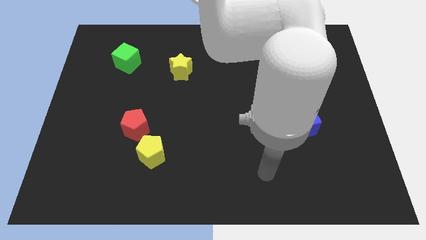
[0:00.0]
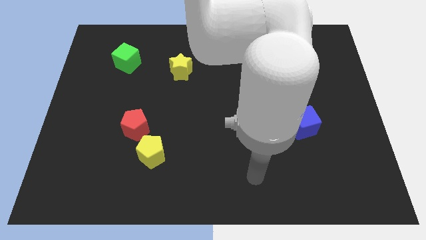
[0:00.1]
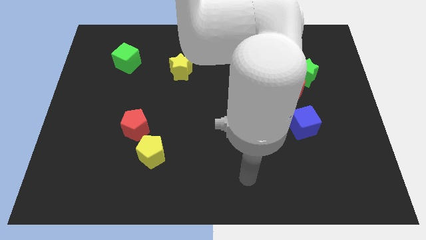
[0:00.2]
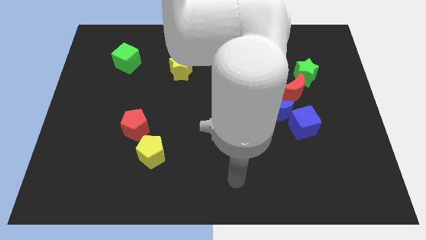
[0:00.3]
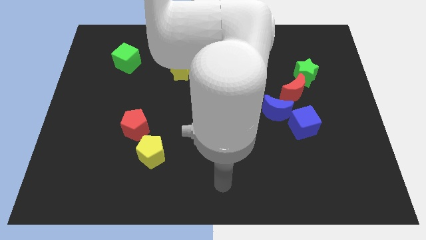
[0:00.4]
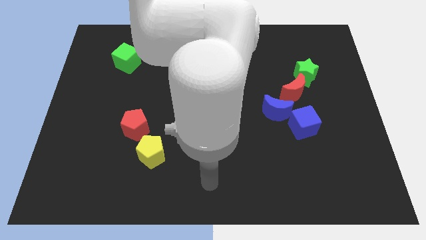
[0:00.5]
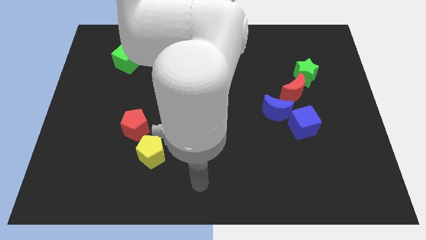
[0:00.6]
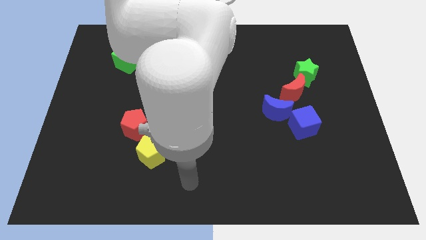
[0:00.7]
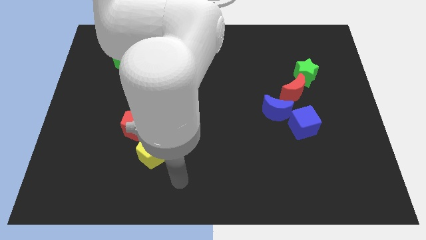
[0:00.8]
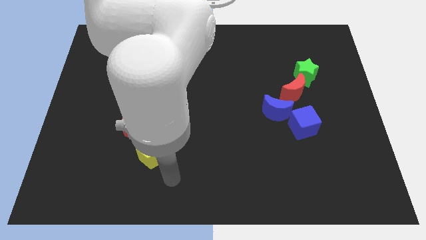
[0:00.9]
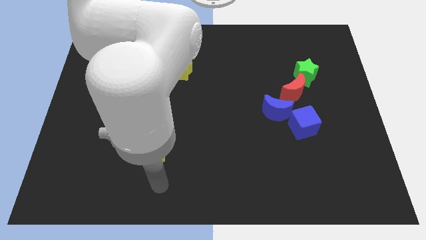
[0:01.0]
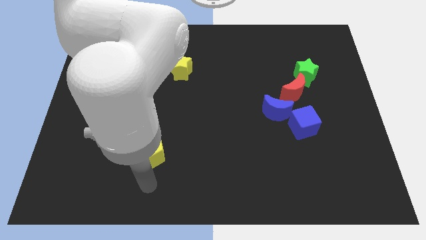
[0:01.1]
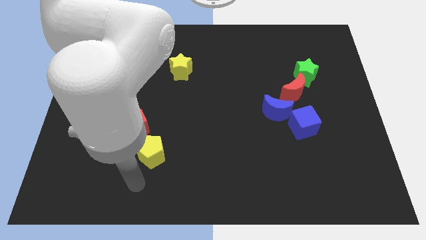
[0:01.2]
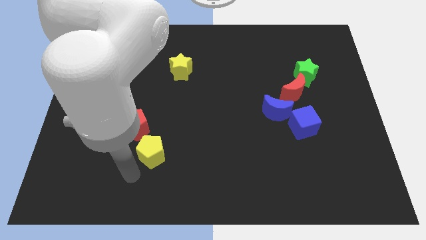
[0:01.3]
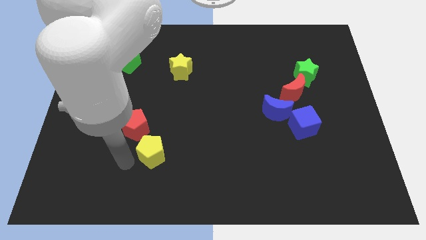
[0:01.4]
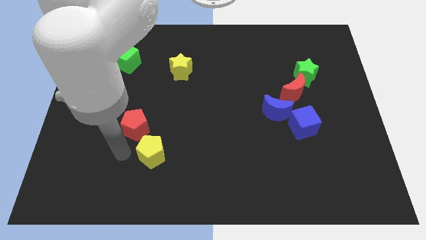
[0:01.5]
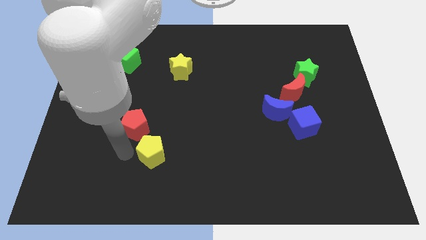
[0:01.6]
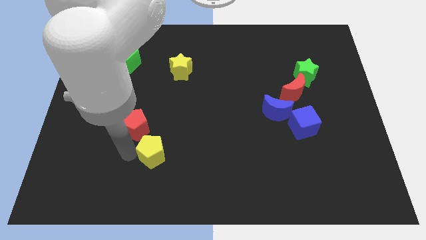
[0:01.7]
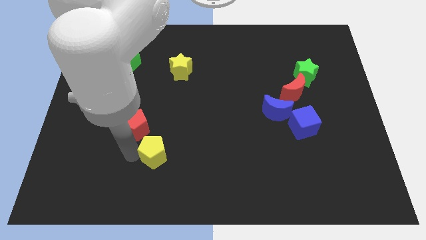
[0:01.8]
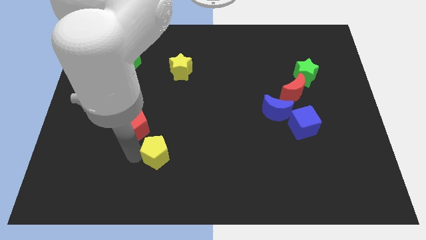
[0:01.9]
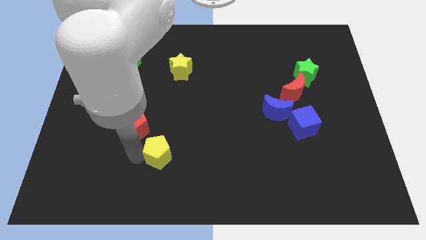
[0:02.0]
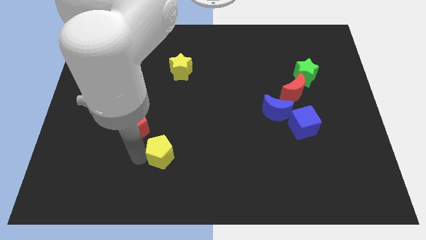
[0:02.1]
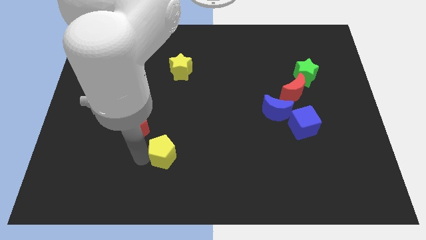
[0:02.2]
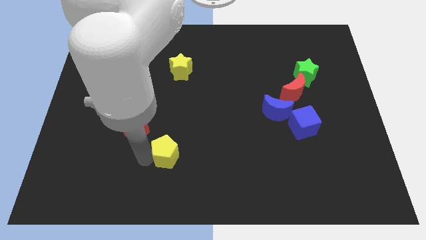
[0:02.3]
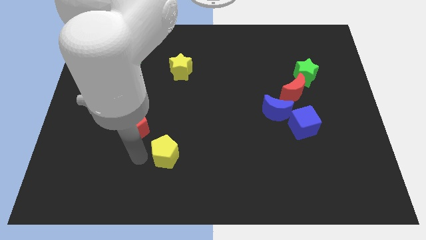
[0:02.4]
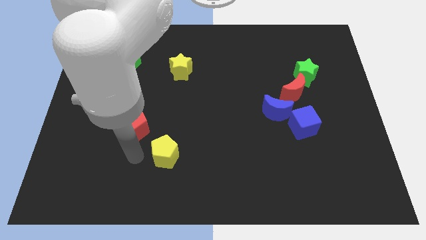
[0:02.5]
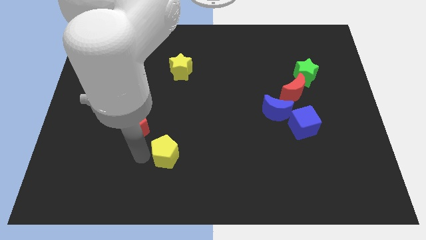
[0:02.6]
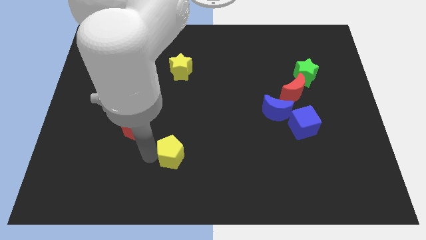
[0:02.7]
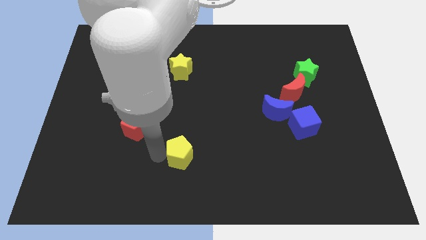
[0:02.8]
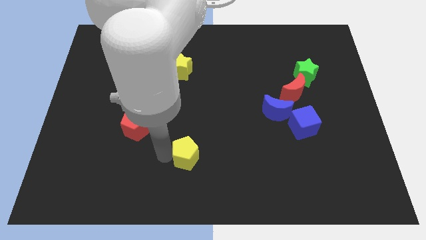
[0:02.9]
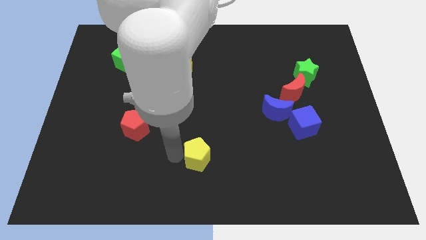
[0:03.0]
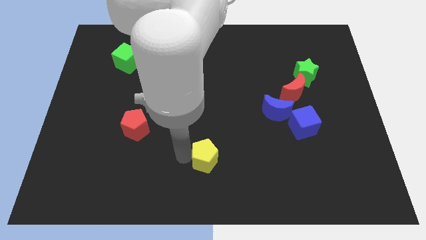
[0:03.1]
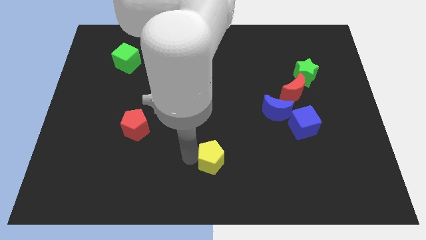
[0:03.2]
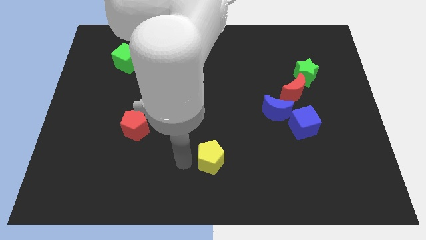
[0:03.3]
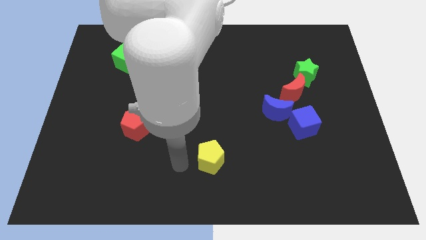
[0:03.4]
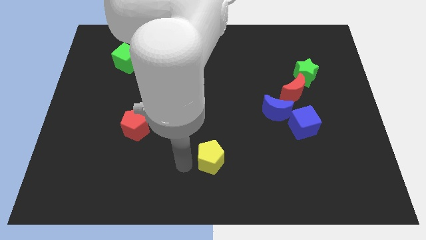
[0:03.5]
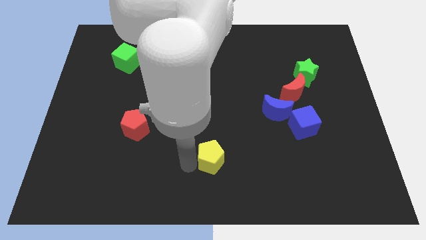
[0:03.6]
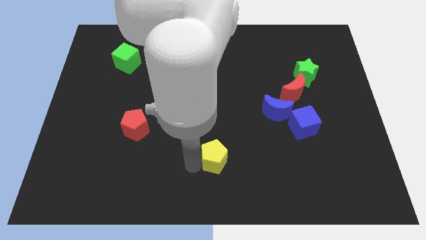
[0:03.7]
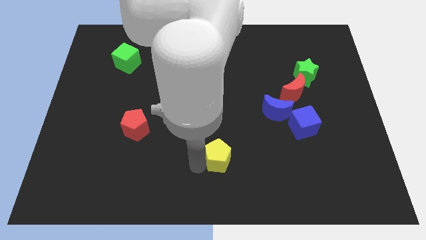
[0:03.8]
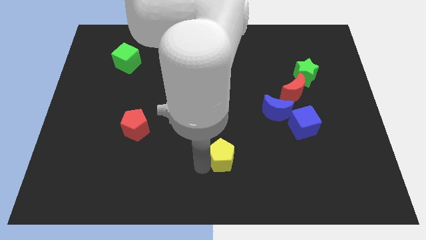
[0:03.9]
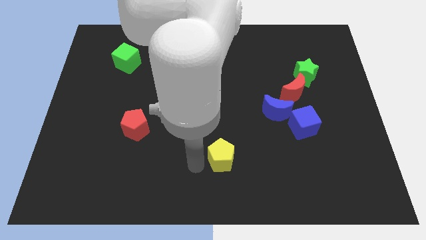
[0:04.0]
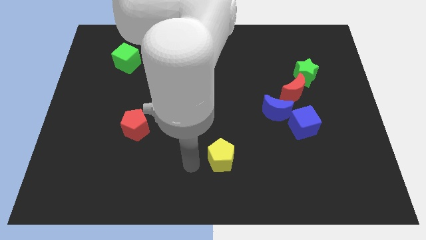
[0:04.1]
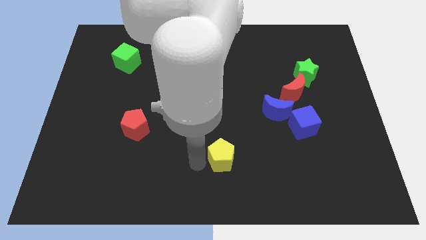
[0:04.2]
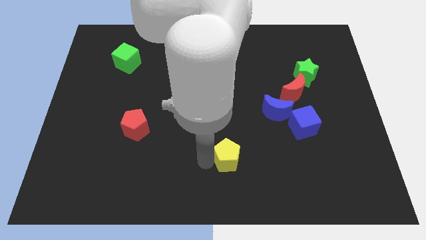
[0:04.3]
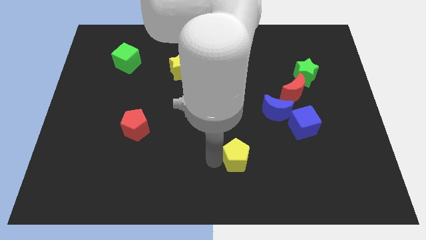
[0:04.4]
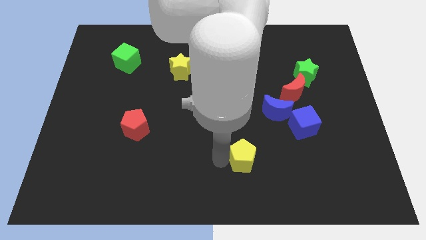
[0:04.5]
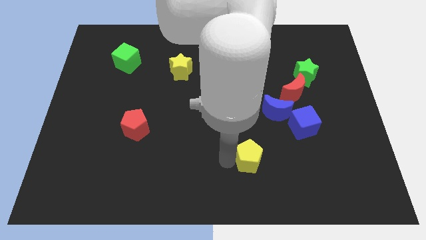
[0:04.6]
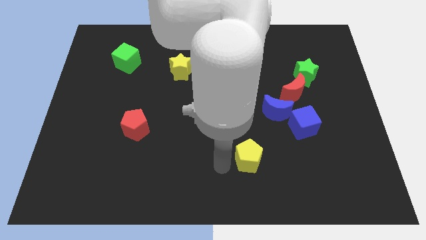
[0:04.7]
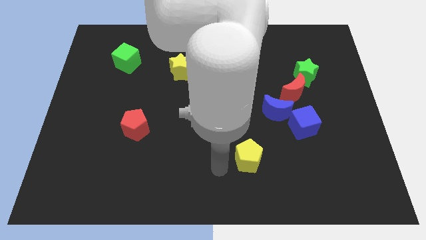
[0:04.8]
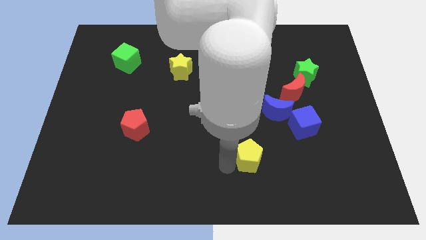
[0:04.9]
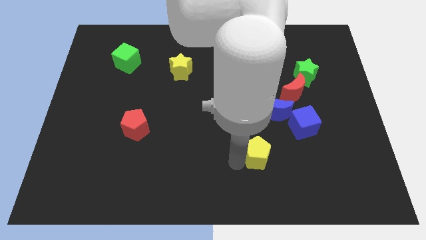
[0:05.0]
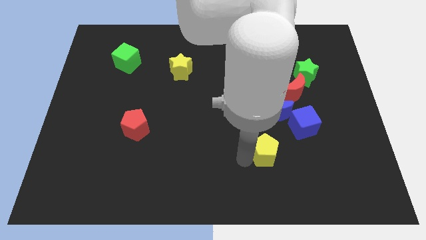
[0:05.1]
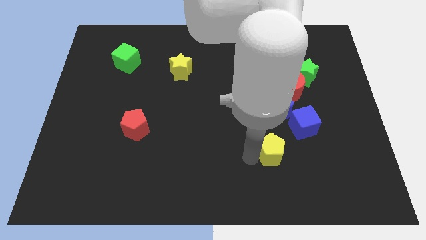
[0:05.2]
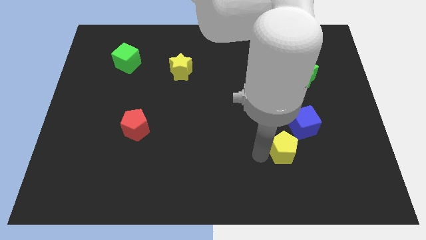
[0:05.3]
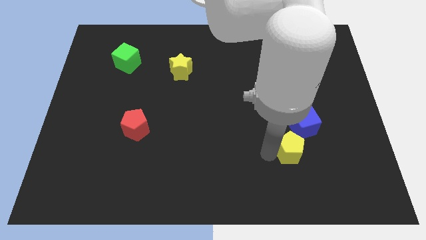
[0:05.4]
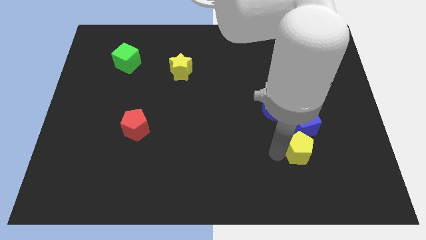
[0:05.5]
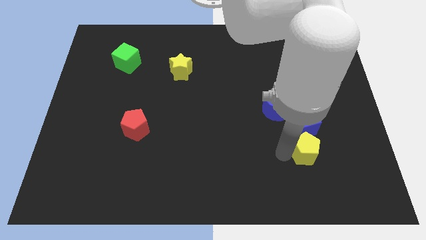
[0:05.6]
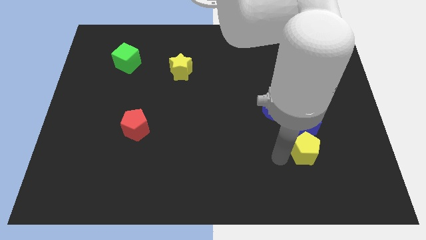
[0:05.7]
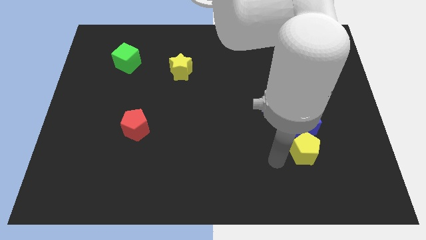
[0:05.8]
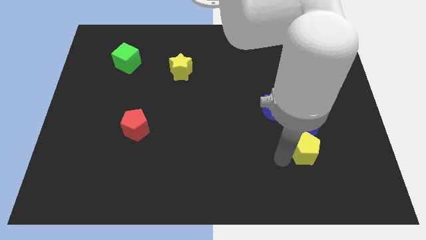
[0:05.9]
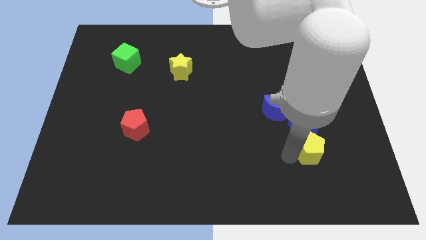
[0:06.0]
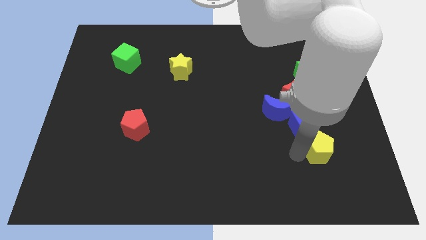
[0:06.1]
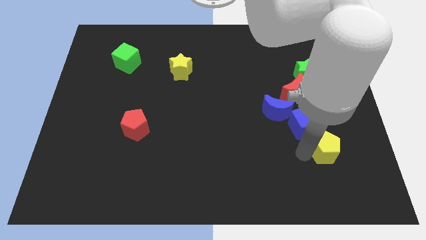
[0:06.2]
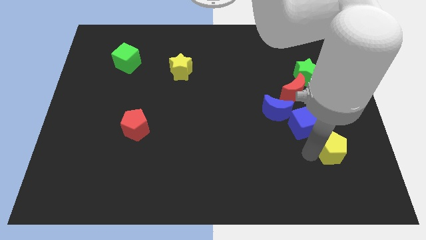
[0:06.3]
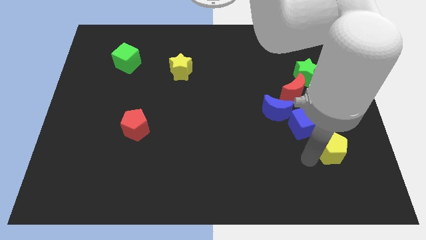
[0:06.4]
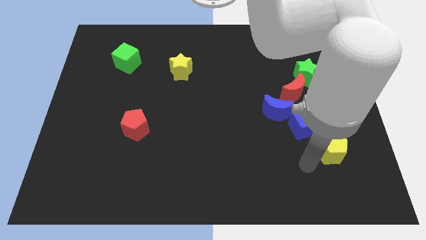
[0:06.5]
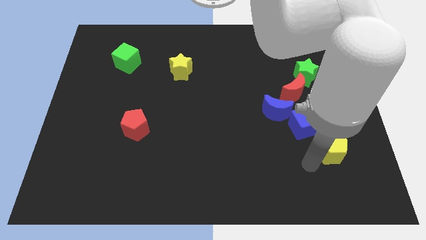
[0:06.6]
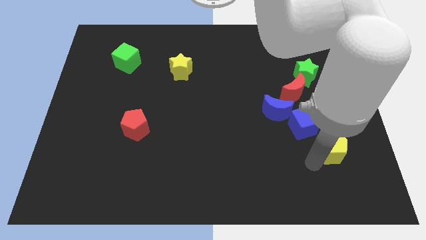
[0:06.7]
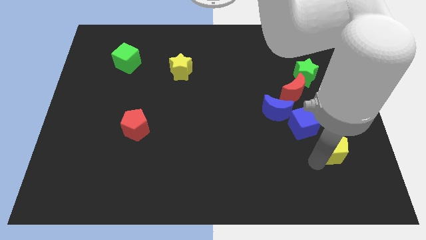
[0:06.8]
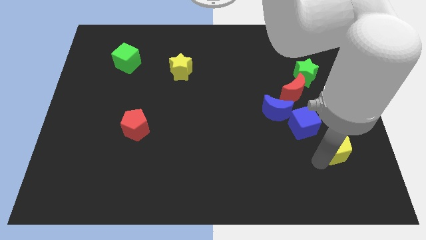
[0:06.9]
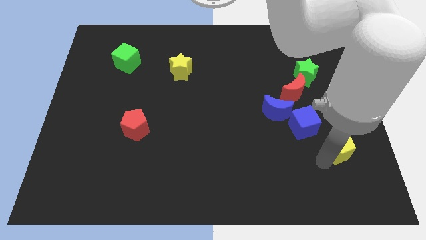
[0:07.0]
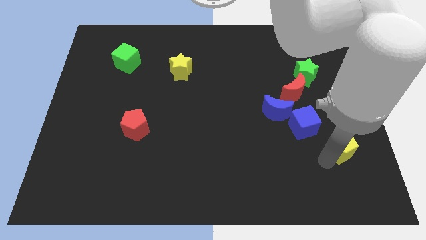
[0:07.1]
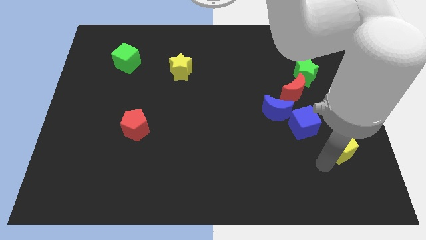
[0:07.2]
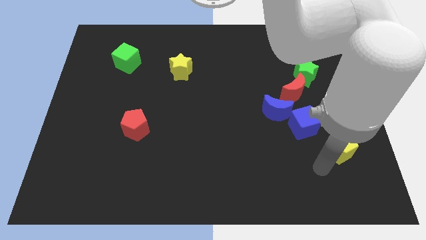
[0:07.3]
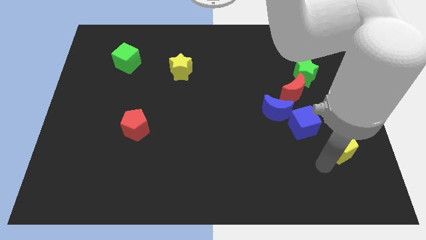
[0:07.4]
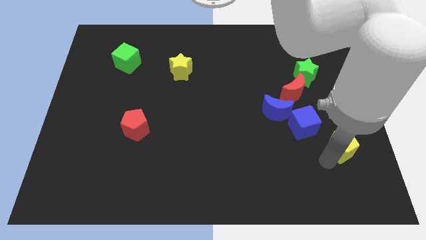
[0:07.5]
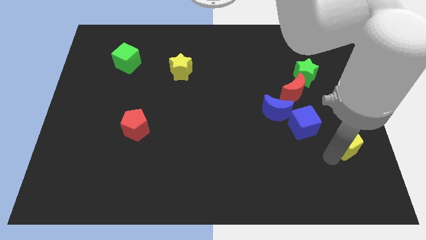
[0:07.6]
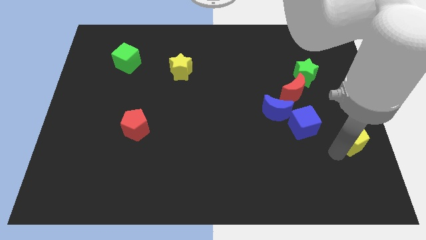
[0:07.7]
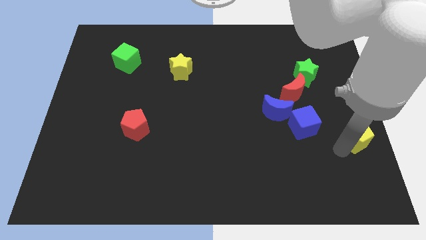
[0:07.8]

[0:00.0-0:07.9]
slide the yellow pentagon to the right side
